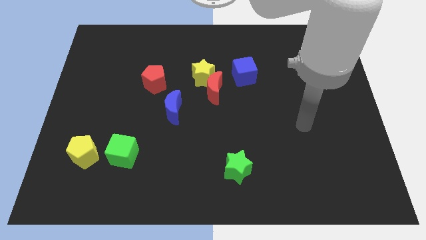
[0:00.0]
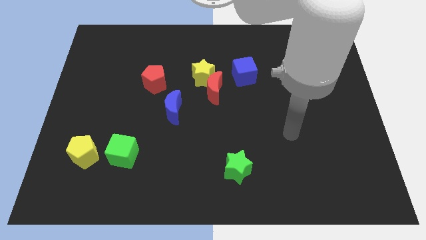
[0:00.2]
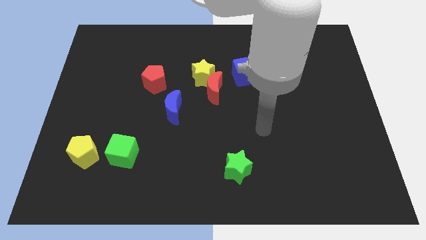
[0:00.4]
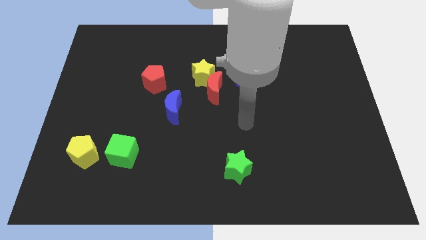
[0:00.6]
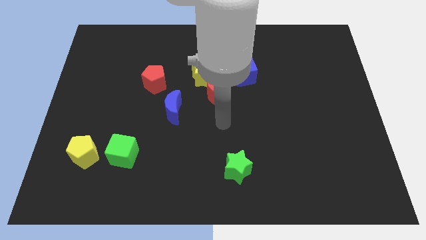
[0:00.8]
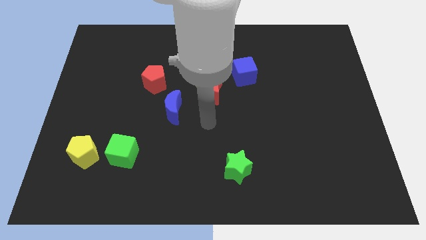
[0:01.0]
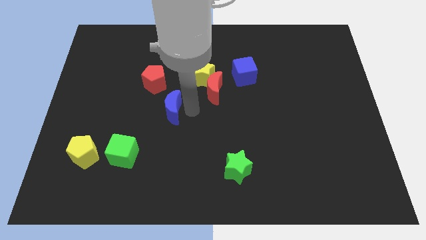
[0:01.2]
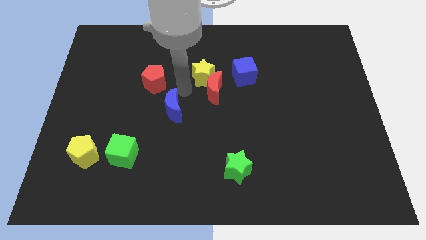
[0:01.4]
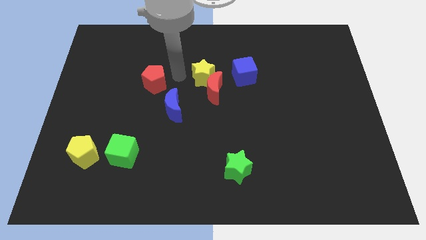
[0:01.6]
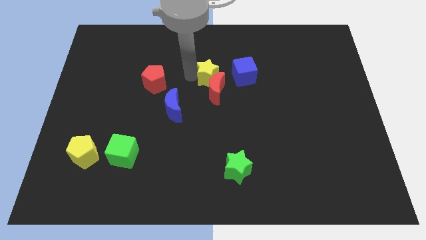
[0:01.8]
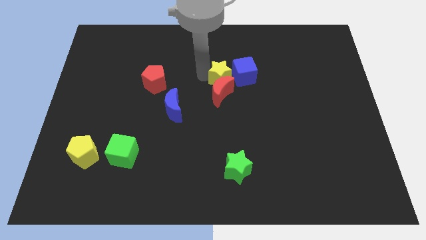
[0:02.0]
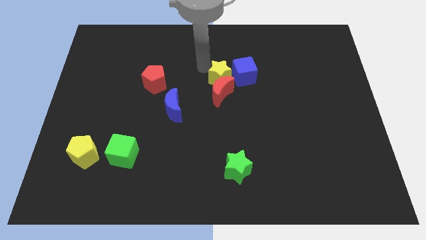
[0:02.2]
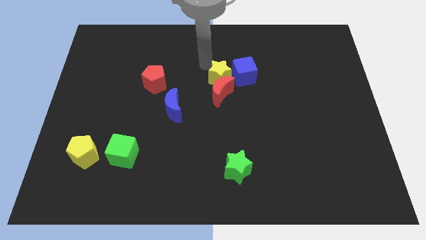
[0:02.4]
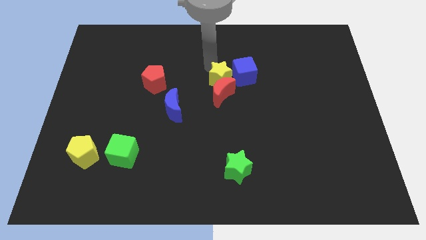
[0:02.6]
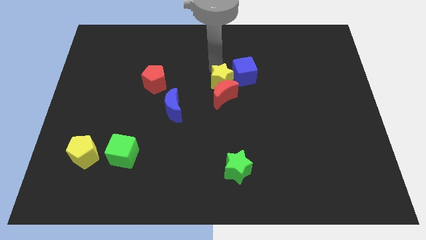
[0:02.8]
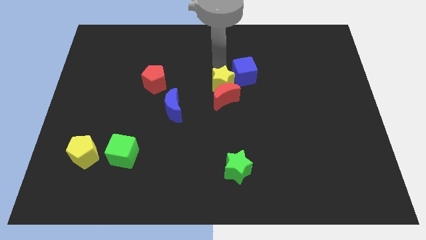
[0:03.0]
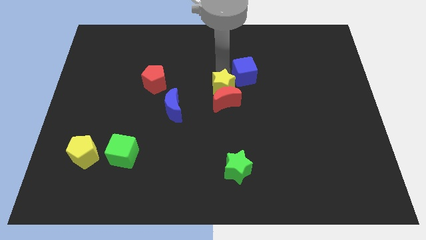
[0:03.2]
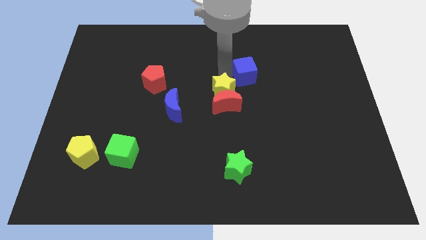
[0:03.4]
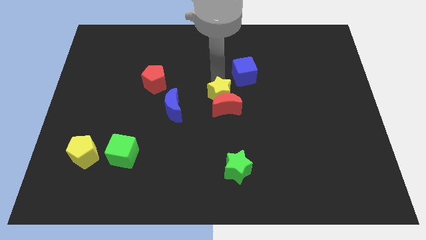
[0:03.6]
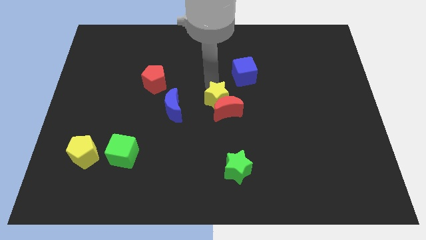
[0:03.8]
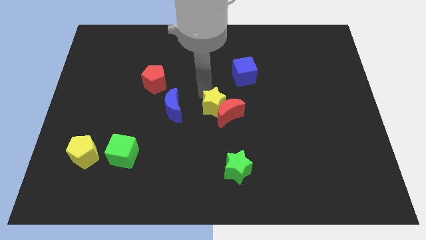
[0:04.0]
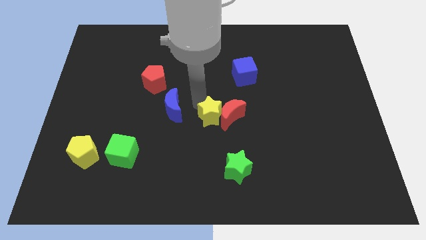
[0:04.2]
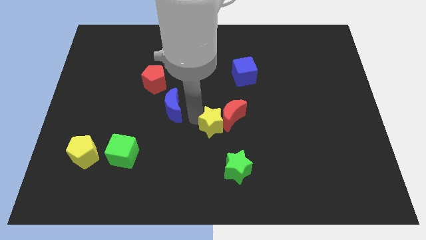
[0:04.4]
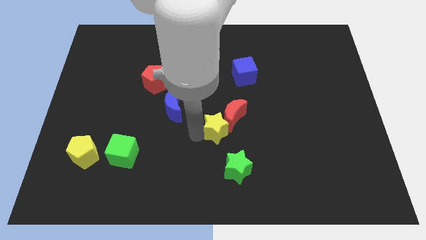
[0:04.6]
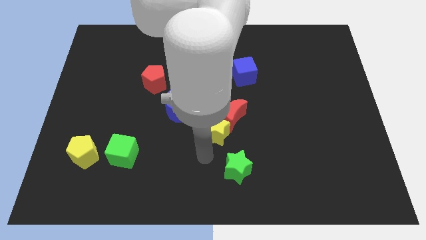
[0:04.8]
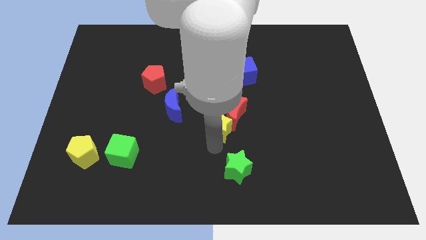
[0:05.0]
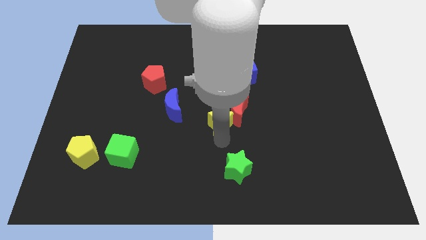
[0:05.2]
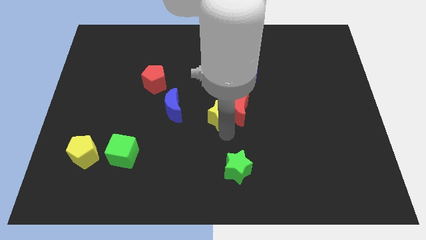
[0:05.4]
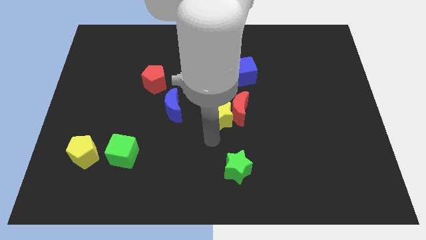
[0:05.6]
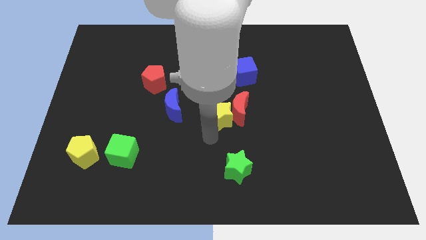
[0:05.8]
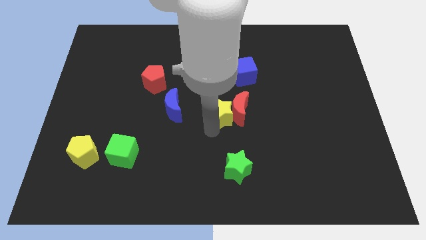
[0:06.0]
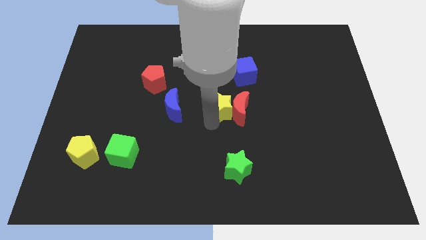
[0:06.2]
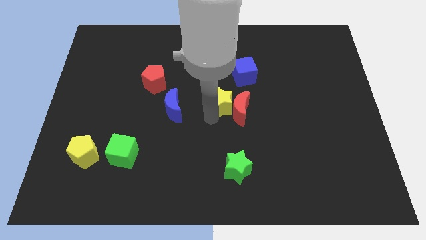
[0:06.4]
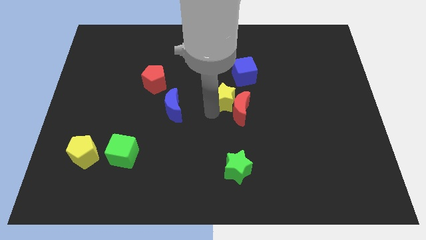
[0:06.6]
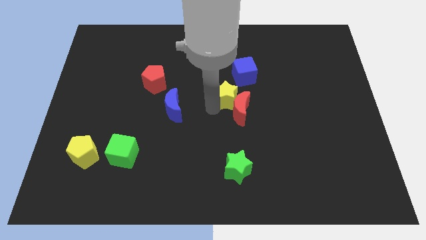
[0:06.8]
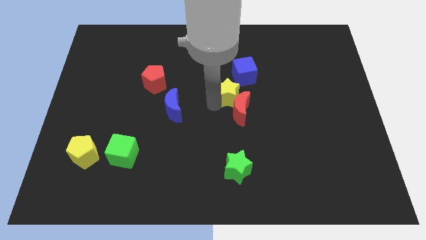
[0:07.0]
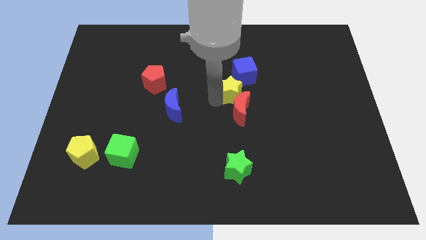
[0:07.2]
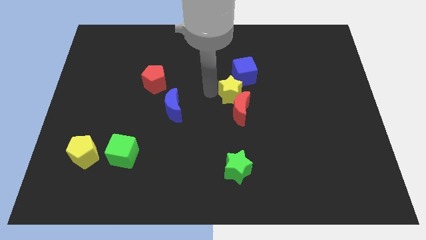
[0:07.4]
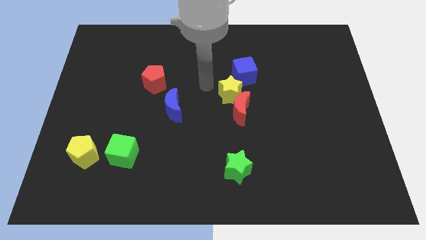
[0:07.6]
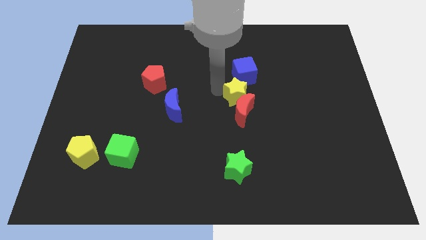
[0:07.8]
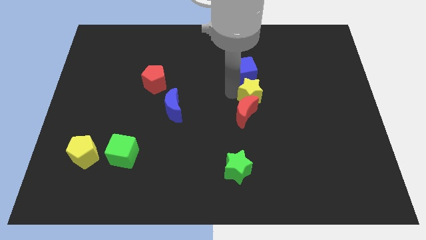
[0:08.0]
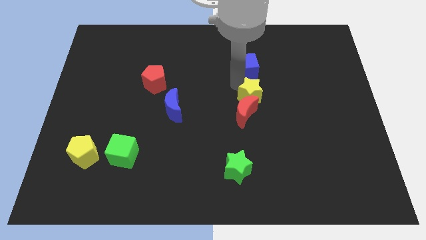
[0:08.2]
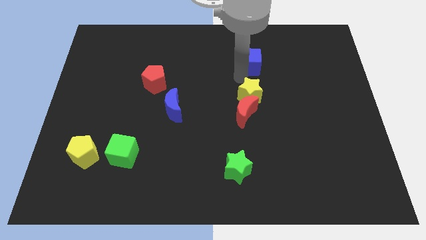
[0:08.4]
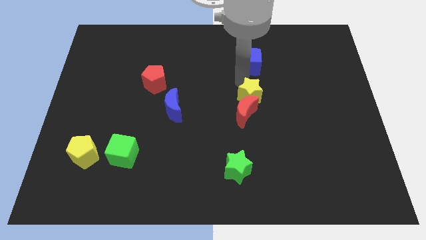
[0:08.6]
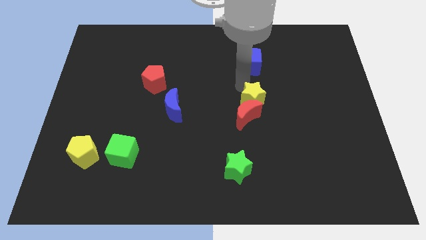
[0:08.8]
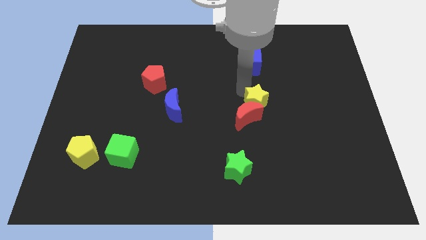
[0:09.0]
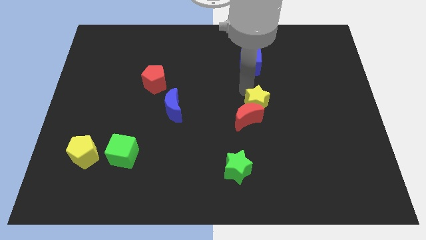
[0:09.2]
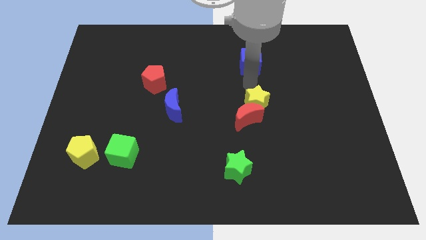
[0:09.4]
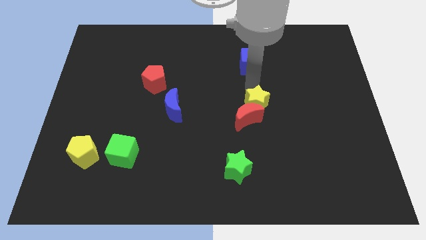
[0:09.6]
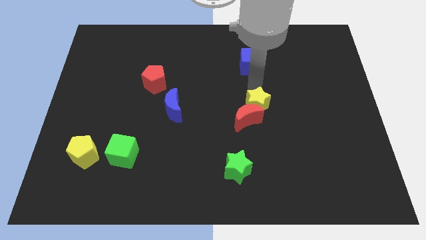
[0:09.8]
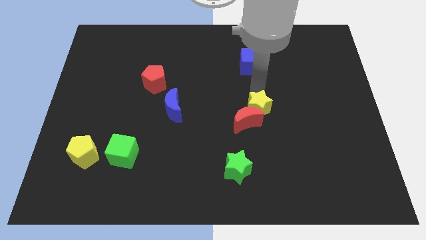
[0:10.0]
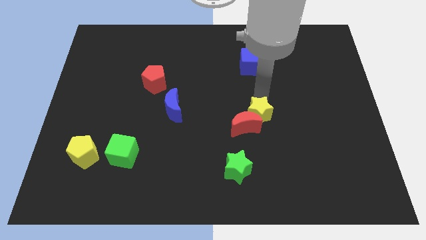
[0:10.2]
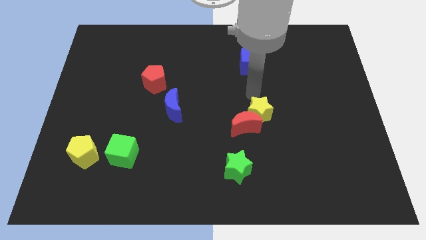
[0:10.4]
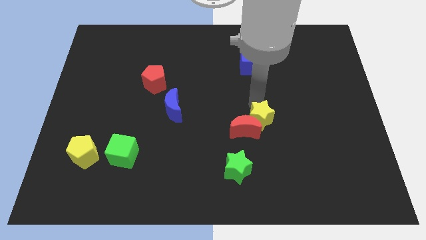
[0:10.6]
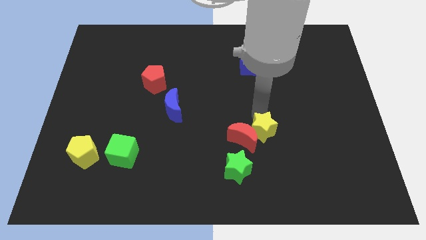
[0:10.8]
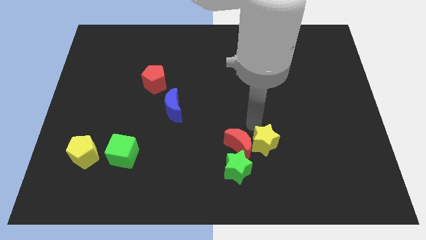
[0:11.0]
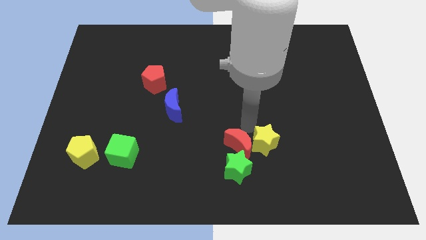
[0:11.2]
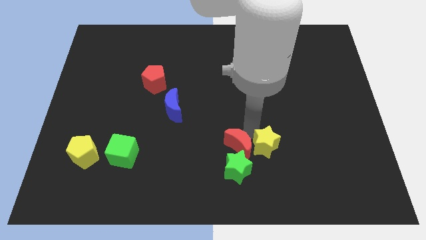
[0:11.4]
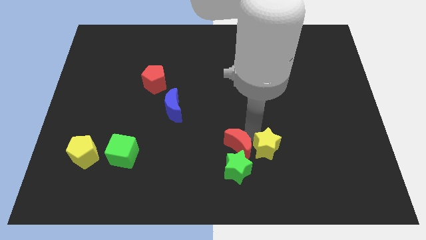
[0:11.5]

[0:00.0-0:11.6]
slide the yellow star to the right side of the green star

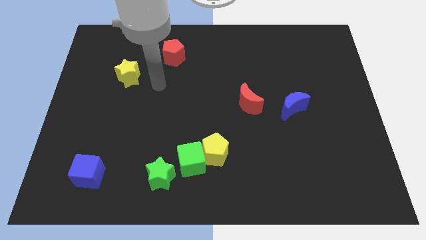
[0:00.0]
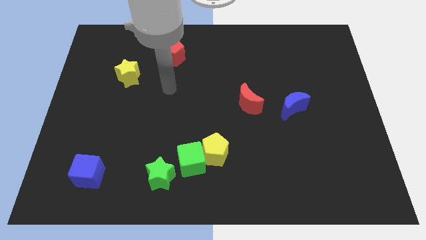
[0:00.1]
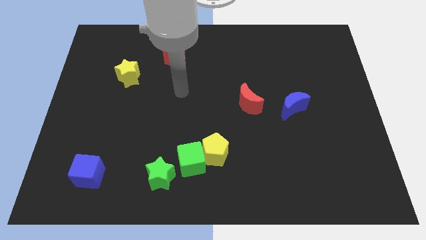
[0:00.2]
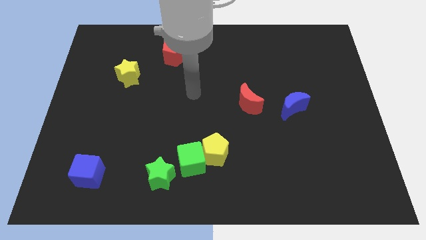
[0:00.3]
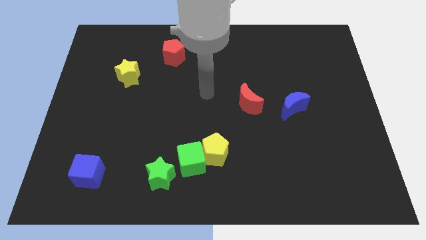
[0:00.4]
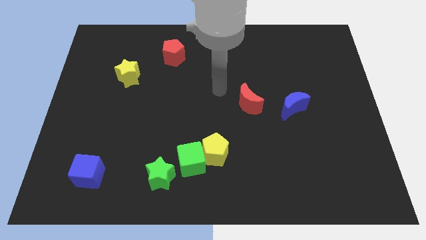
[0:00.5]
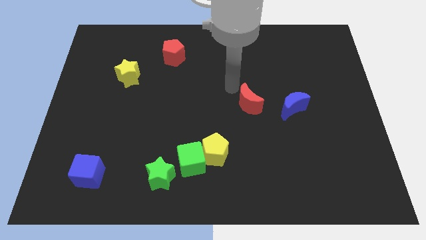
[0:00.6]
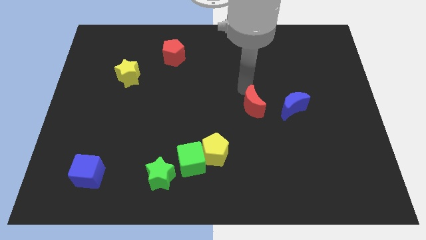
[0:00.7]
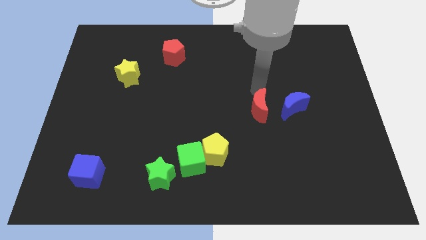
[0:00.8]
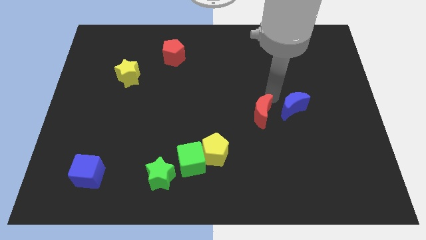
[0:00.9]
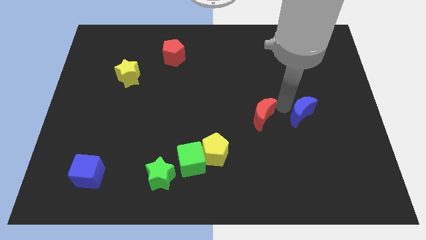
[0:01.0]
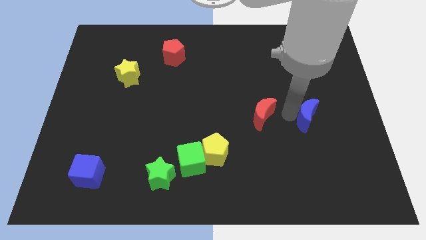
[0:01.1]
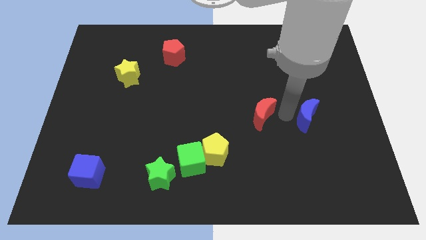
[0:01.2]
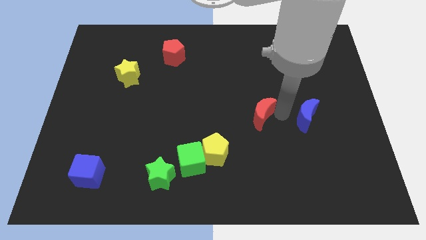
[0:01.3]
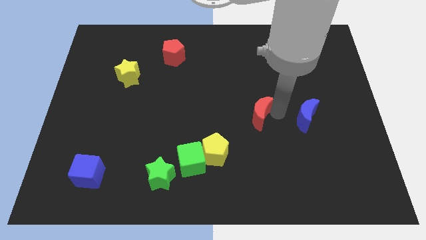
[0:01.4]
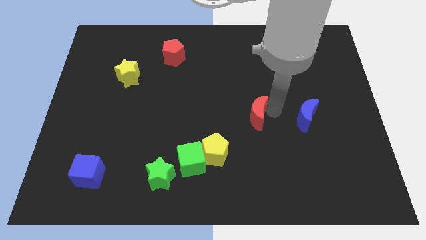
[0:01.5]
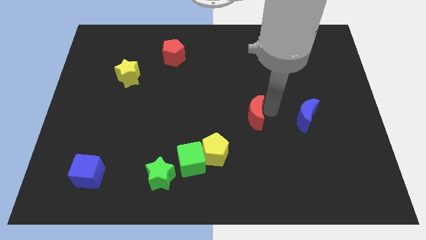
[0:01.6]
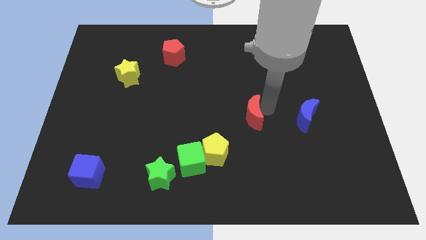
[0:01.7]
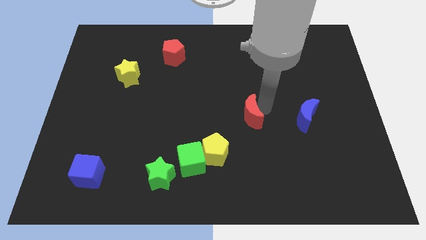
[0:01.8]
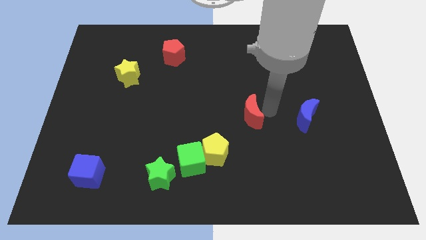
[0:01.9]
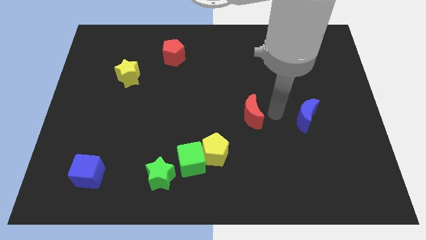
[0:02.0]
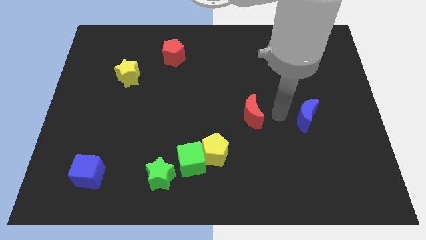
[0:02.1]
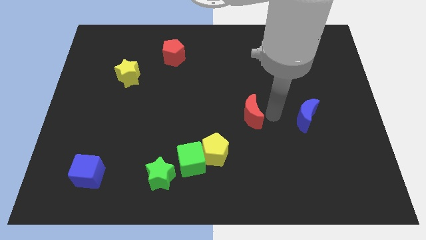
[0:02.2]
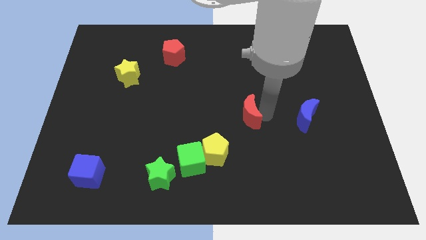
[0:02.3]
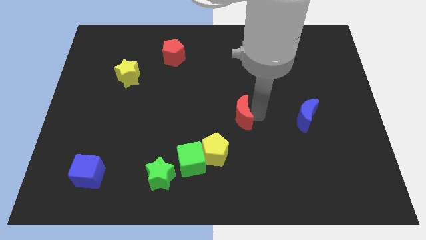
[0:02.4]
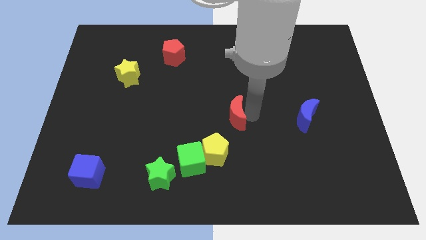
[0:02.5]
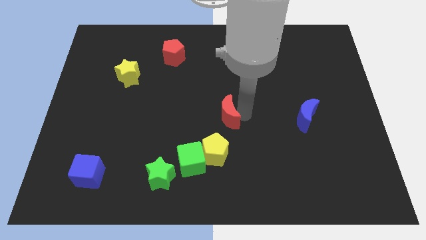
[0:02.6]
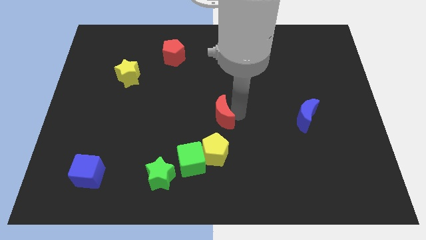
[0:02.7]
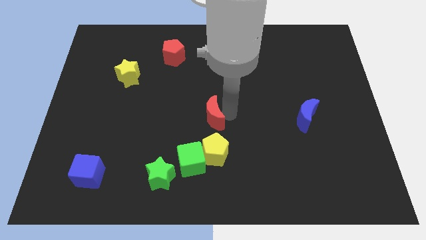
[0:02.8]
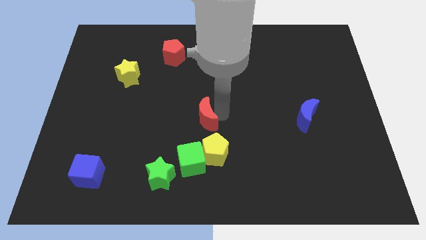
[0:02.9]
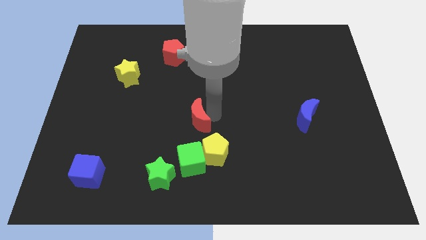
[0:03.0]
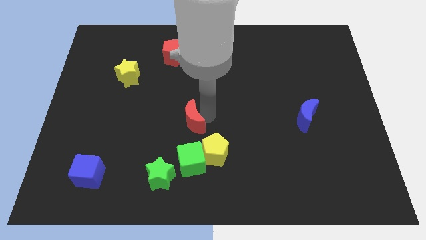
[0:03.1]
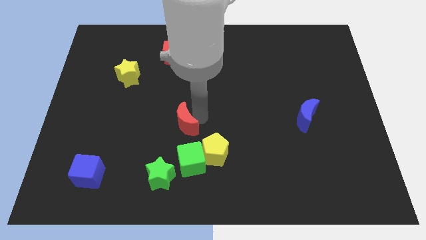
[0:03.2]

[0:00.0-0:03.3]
put the red moon to the top of the green star
